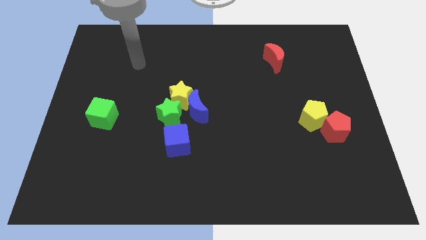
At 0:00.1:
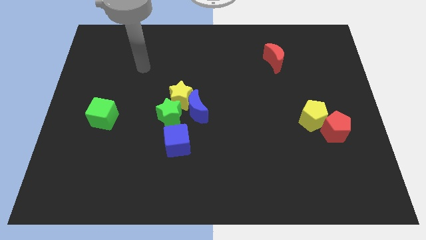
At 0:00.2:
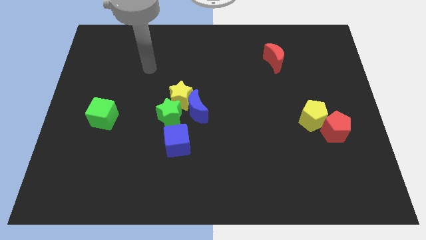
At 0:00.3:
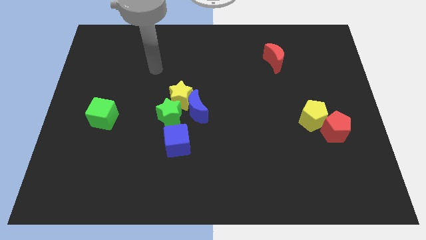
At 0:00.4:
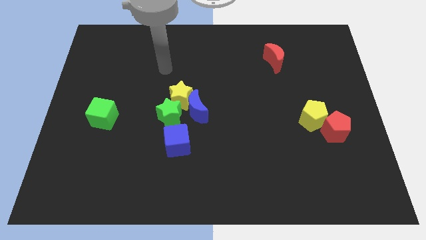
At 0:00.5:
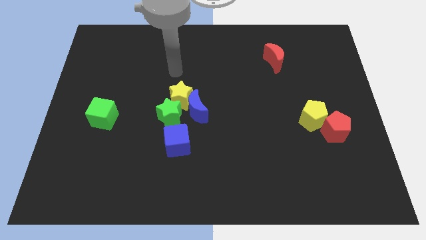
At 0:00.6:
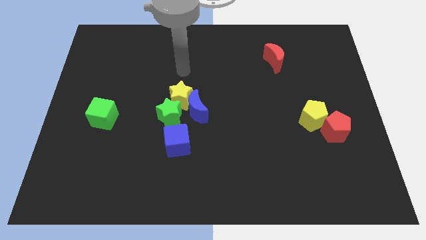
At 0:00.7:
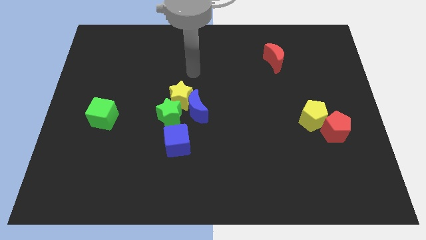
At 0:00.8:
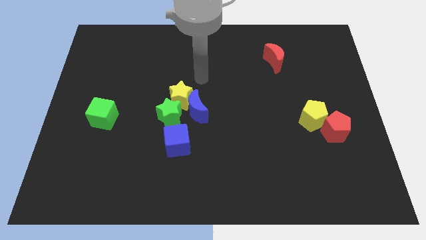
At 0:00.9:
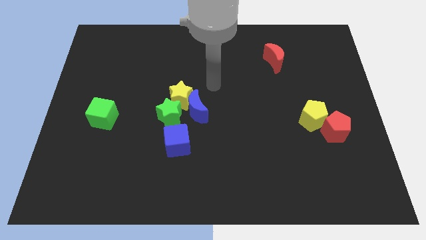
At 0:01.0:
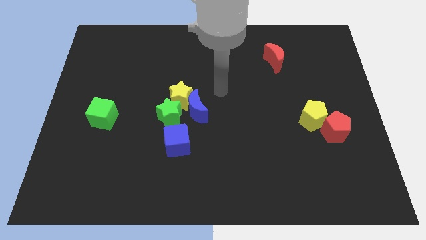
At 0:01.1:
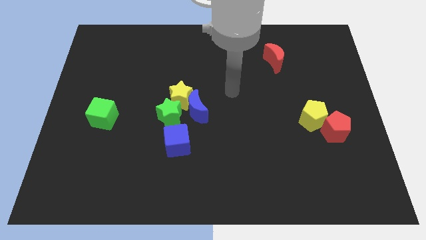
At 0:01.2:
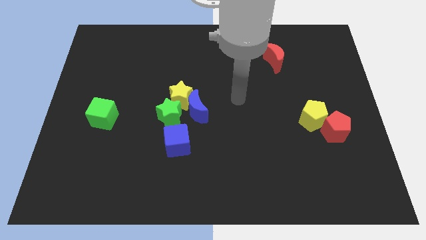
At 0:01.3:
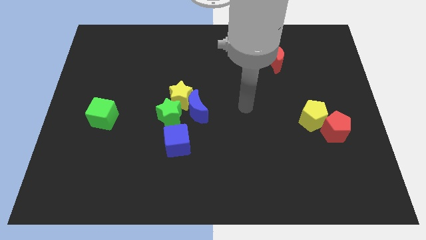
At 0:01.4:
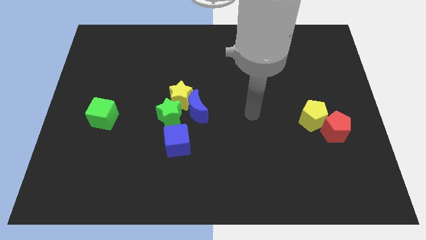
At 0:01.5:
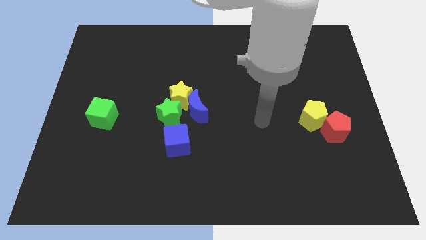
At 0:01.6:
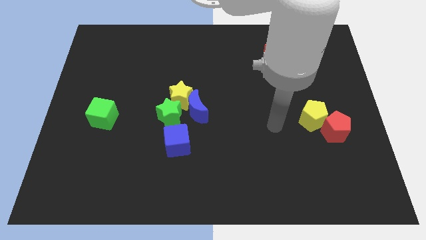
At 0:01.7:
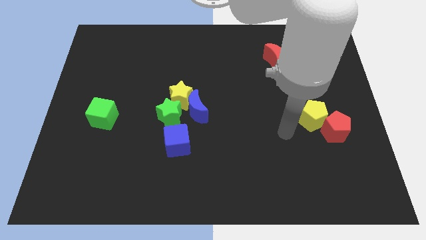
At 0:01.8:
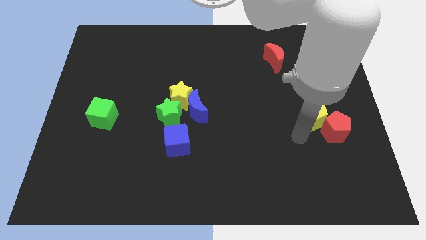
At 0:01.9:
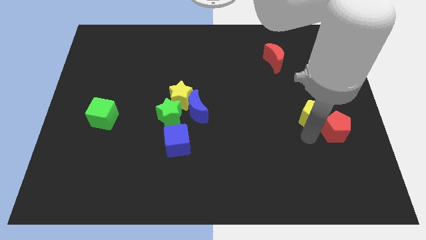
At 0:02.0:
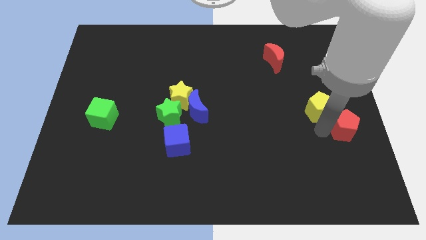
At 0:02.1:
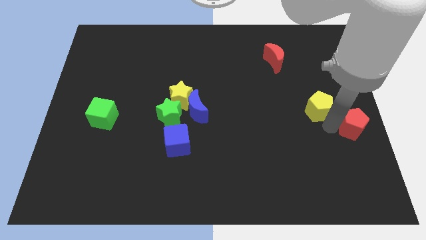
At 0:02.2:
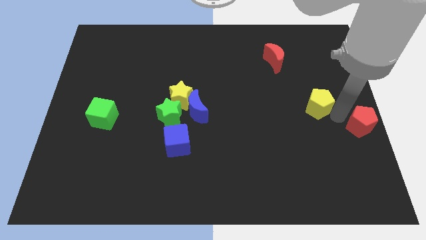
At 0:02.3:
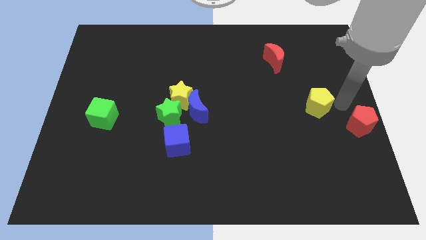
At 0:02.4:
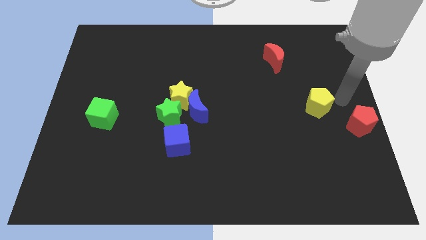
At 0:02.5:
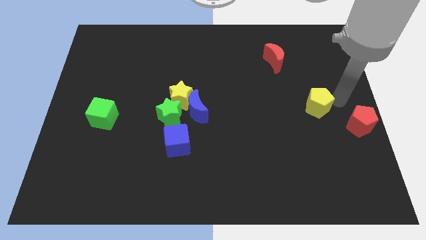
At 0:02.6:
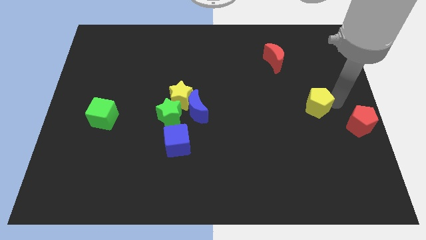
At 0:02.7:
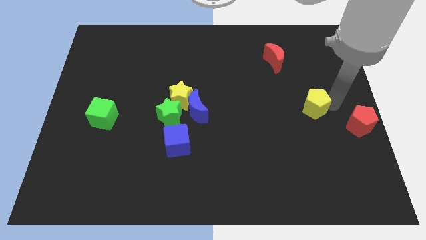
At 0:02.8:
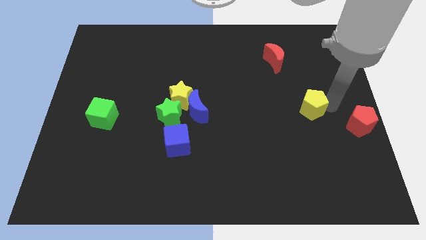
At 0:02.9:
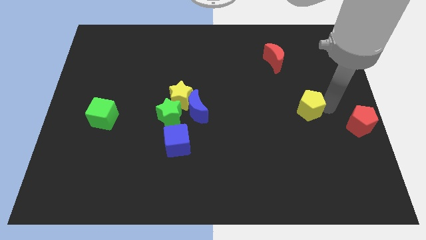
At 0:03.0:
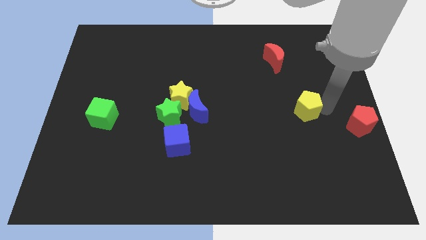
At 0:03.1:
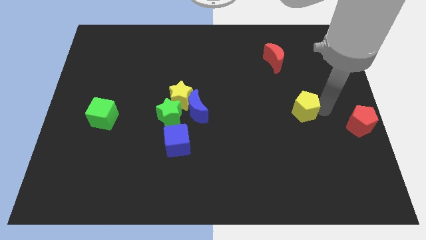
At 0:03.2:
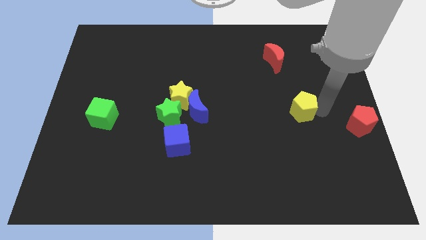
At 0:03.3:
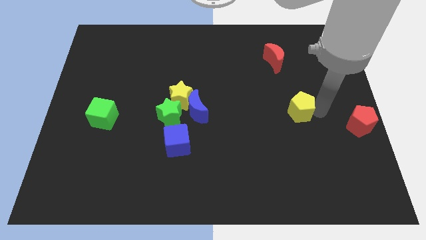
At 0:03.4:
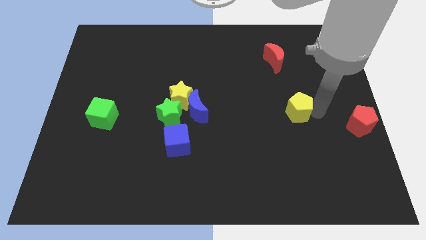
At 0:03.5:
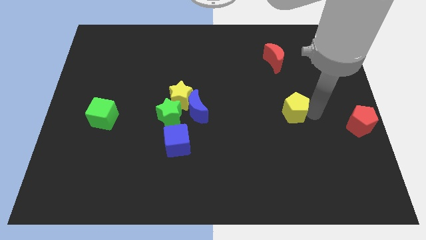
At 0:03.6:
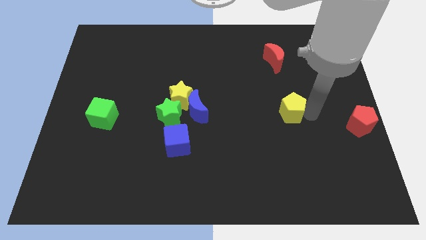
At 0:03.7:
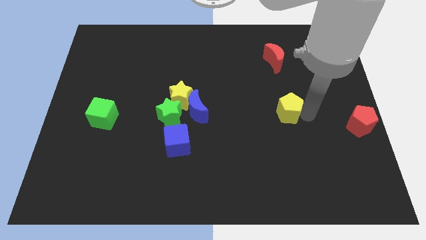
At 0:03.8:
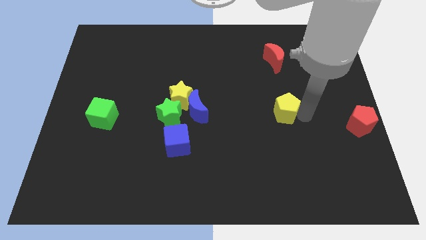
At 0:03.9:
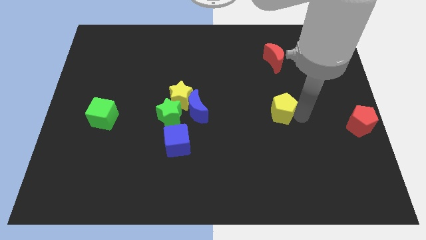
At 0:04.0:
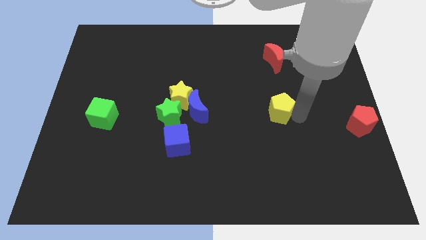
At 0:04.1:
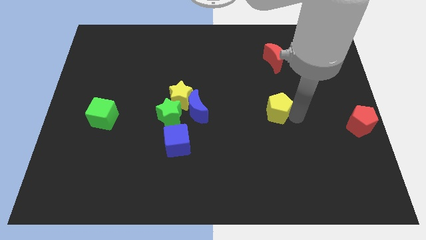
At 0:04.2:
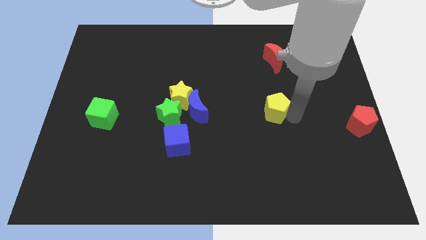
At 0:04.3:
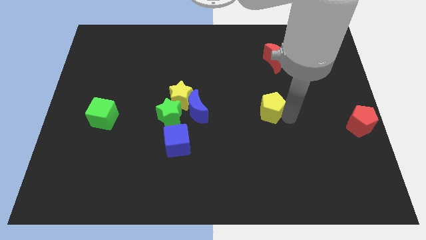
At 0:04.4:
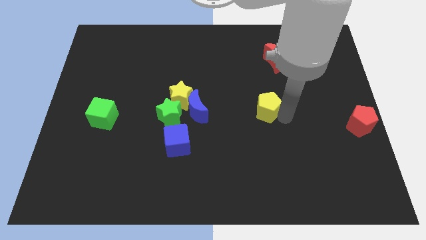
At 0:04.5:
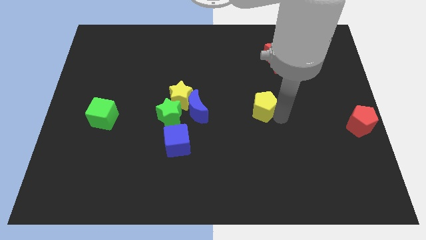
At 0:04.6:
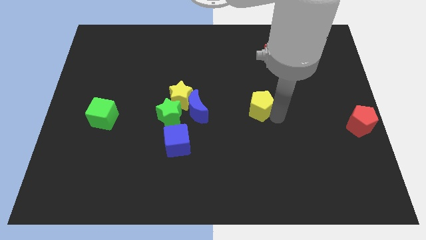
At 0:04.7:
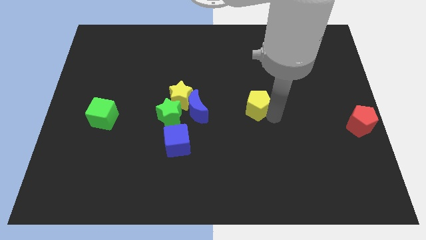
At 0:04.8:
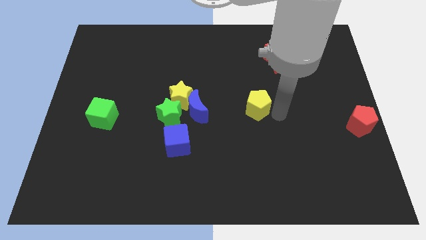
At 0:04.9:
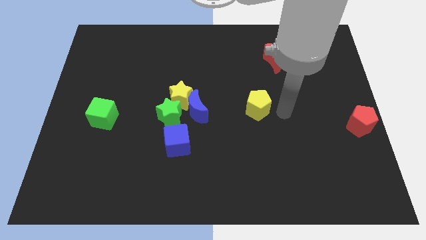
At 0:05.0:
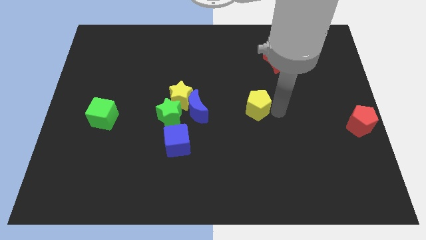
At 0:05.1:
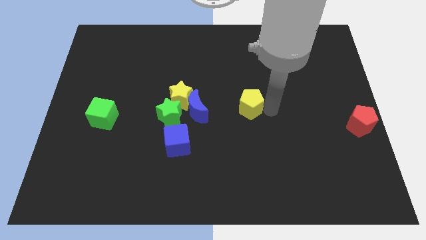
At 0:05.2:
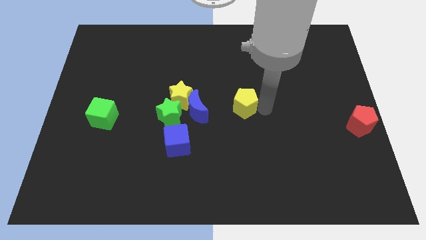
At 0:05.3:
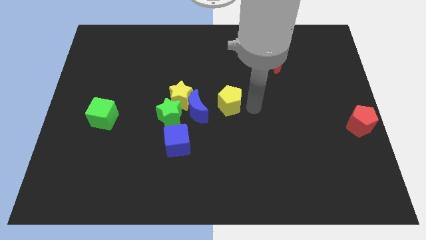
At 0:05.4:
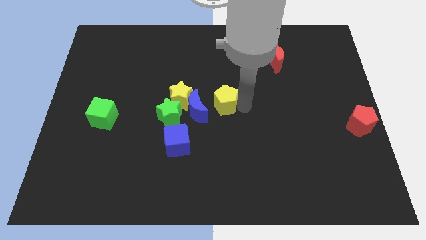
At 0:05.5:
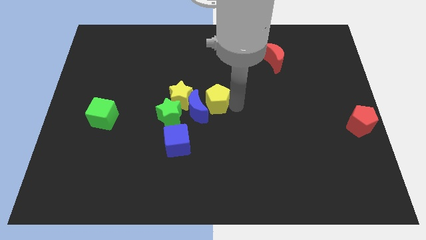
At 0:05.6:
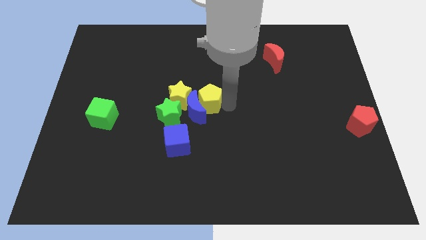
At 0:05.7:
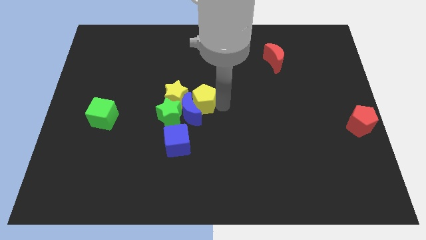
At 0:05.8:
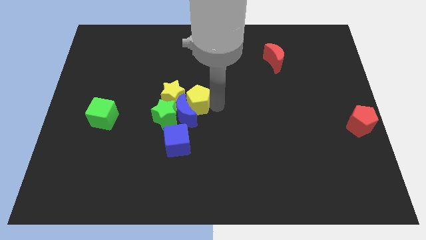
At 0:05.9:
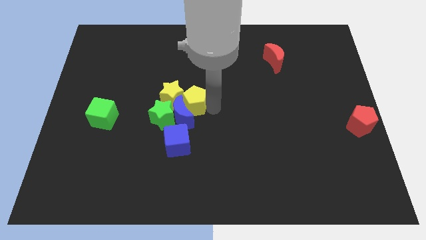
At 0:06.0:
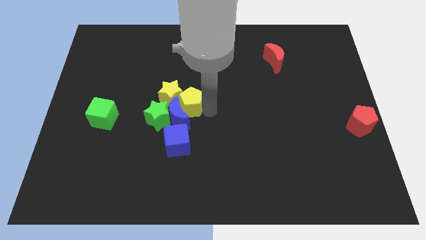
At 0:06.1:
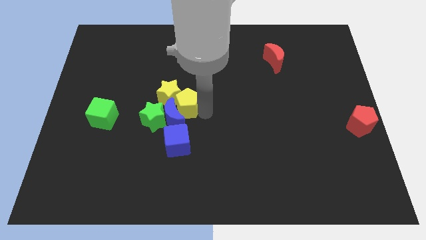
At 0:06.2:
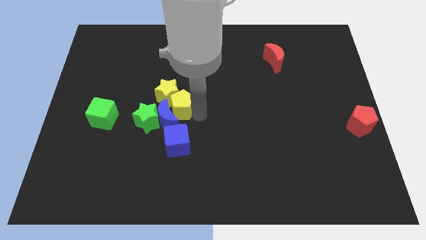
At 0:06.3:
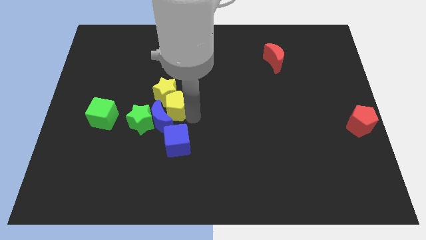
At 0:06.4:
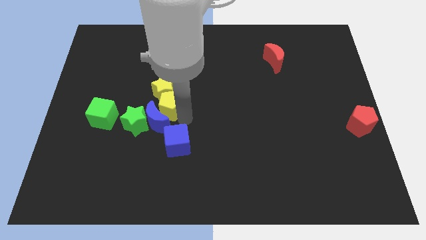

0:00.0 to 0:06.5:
slide the yellow pentagon to the bottom left of the yellow star

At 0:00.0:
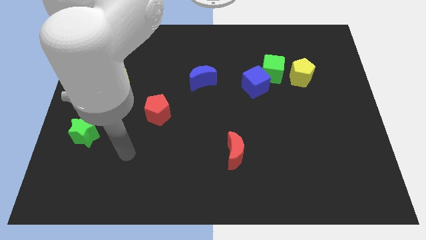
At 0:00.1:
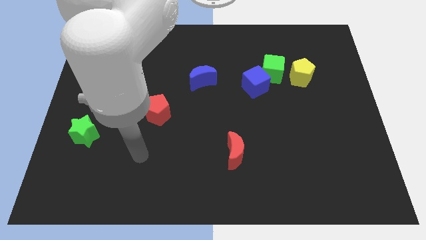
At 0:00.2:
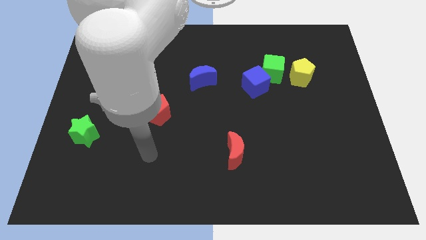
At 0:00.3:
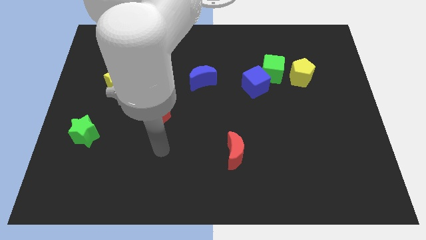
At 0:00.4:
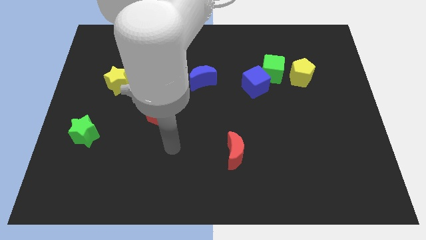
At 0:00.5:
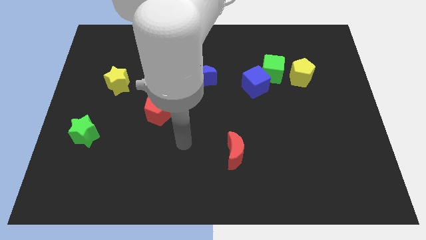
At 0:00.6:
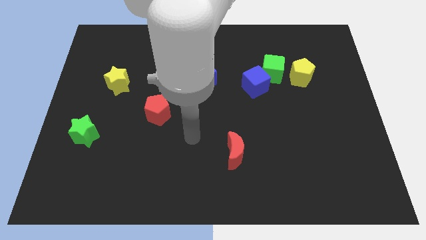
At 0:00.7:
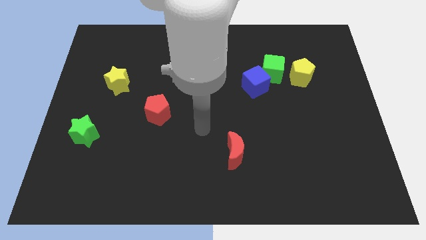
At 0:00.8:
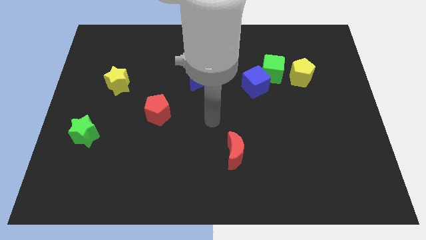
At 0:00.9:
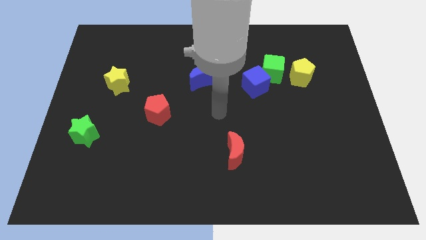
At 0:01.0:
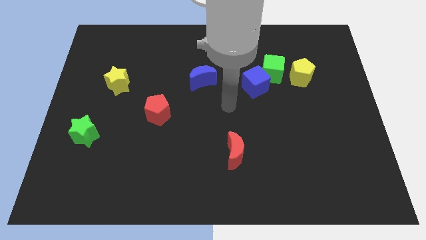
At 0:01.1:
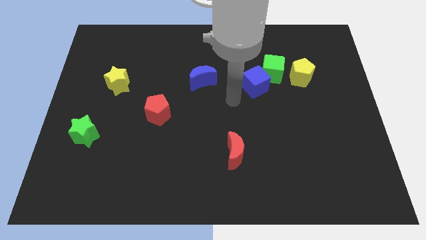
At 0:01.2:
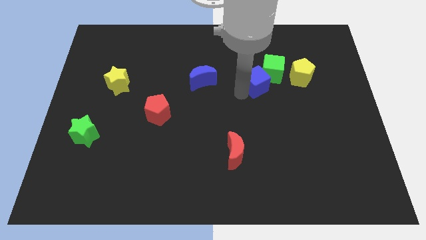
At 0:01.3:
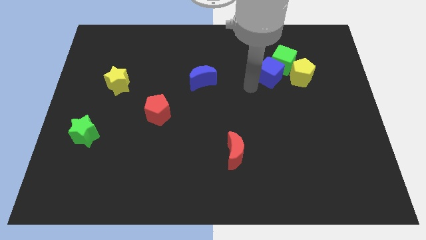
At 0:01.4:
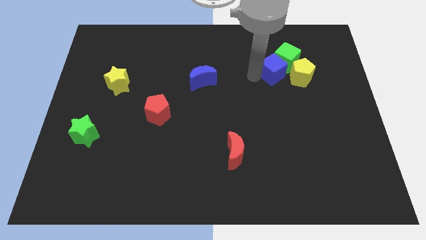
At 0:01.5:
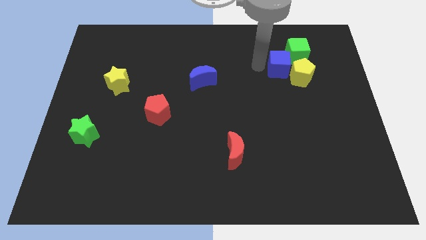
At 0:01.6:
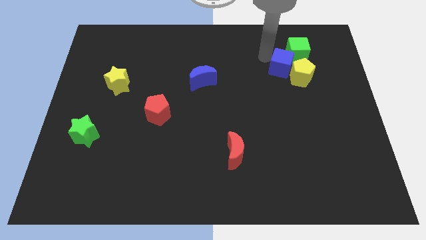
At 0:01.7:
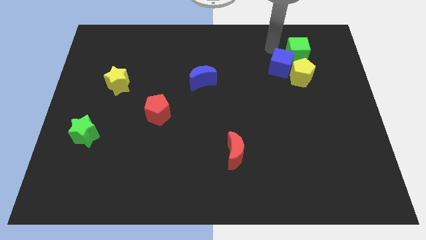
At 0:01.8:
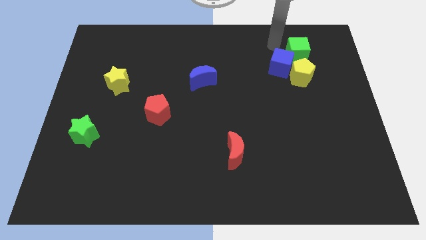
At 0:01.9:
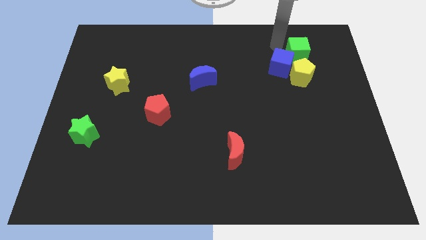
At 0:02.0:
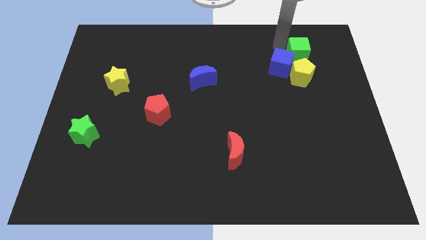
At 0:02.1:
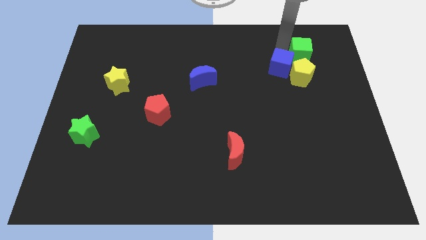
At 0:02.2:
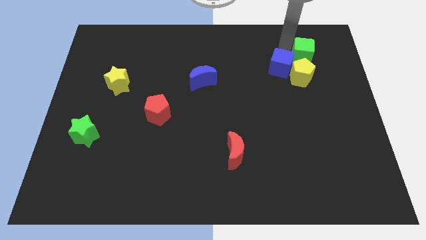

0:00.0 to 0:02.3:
move the green cube to the top right of the yellow pentagon
